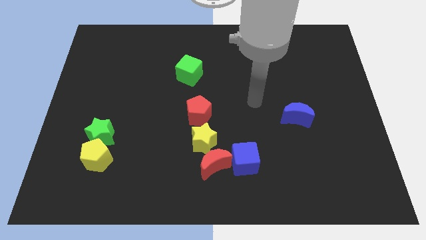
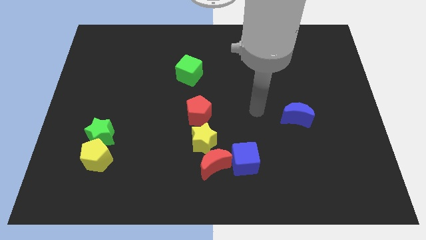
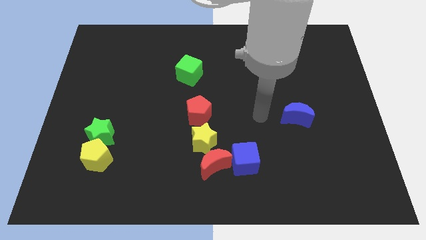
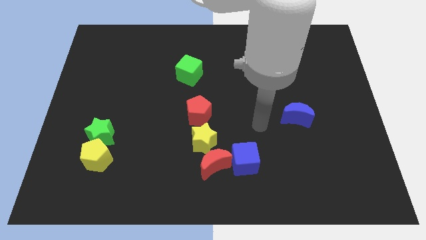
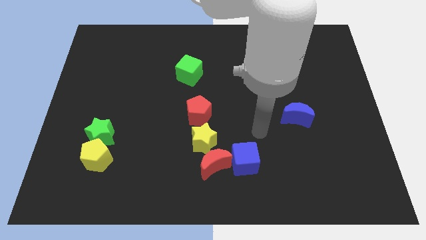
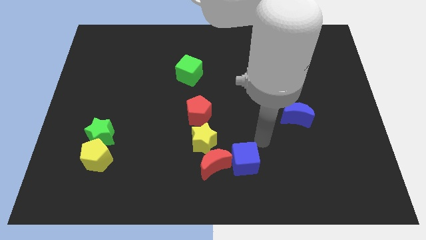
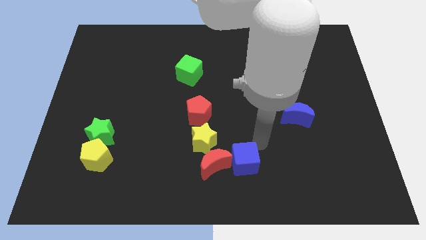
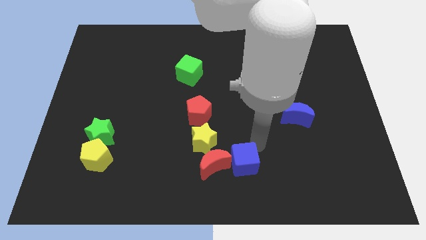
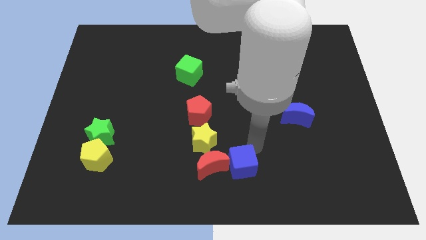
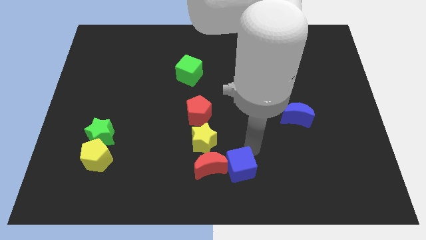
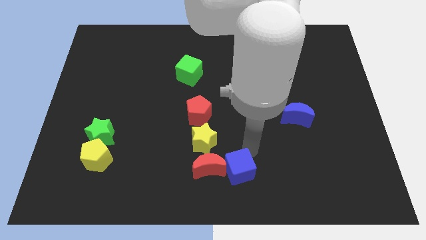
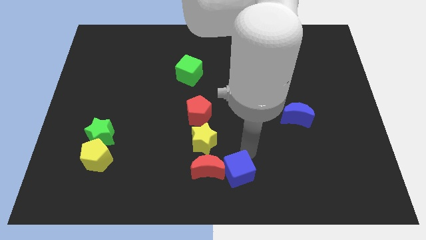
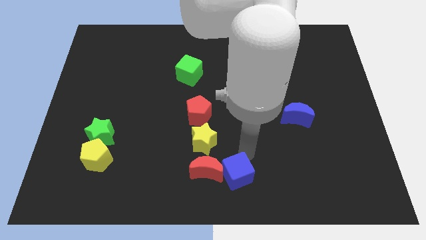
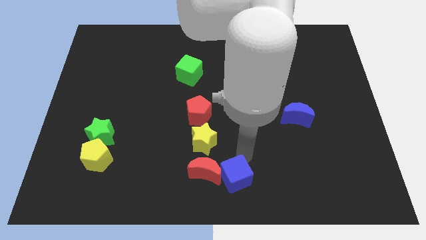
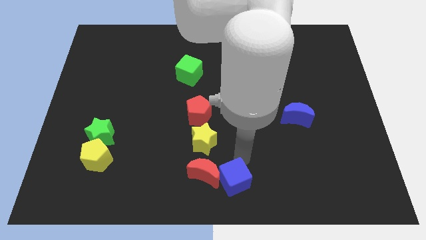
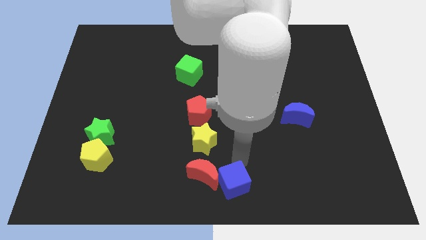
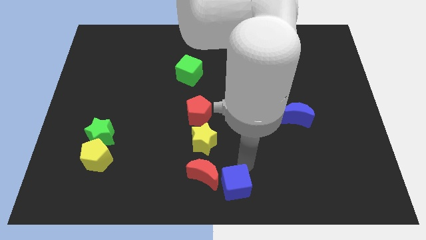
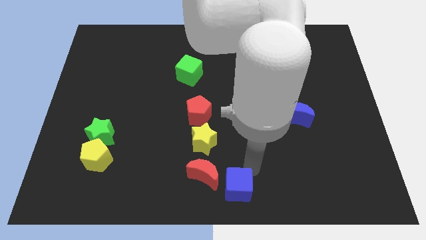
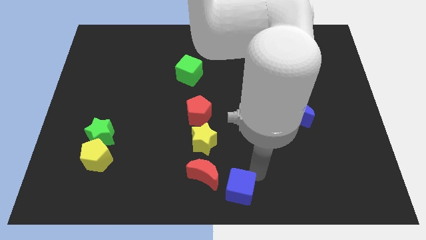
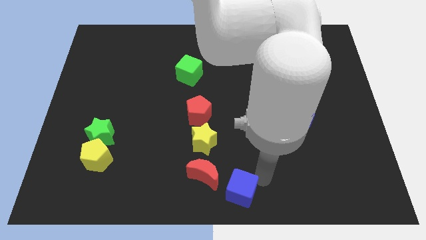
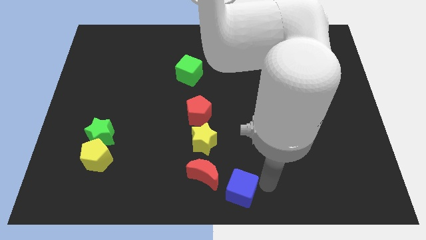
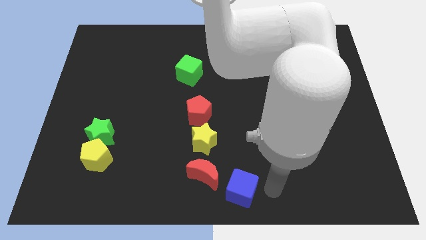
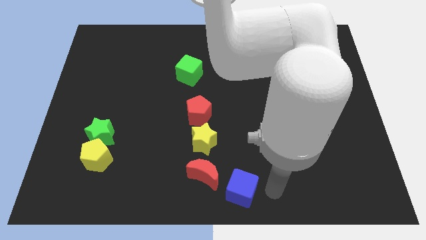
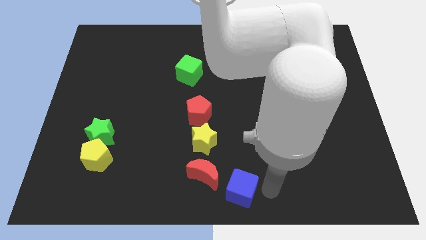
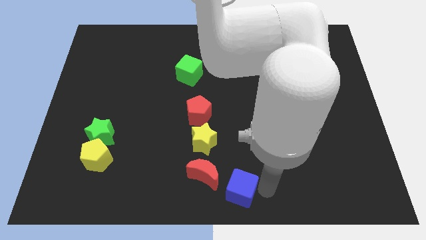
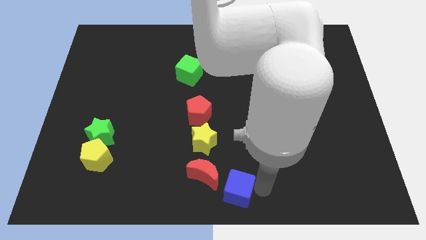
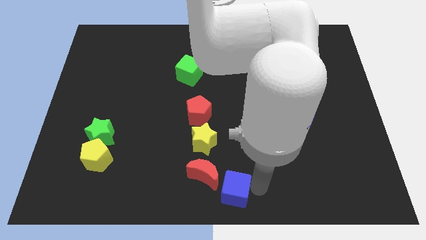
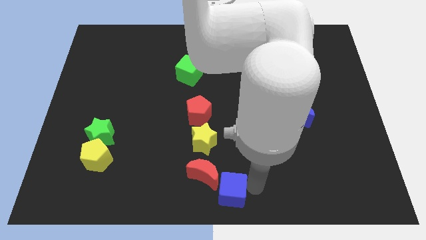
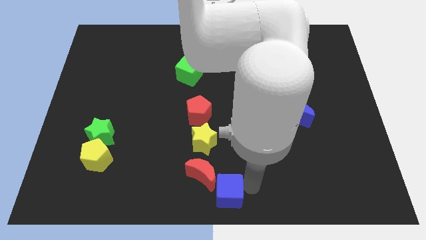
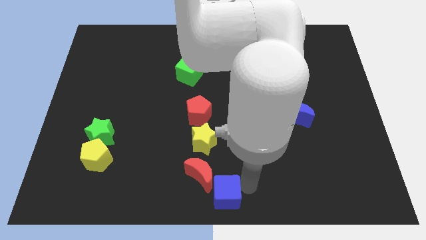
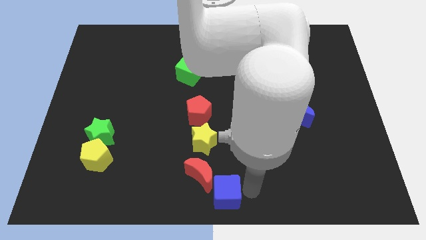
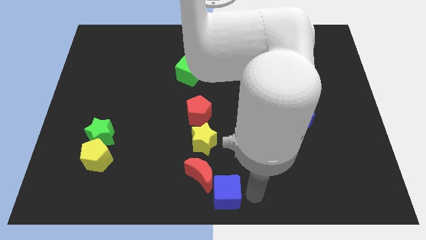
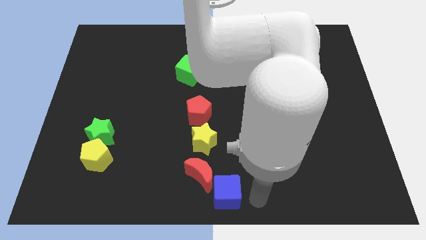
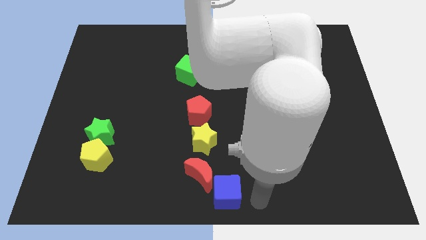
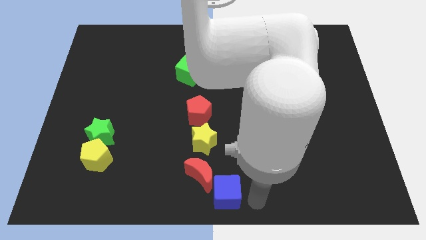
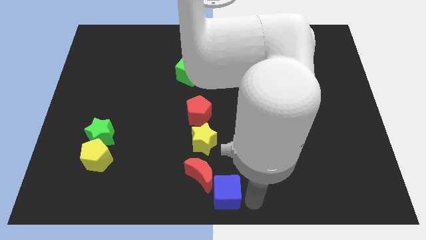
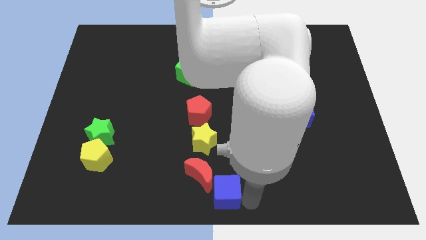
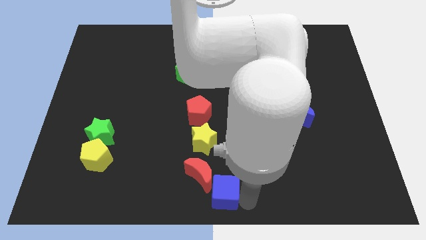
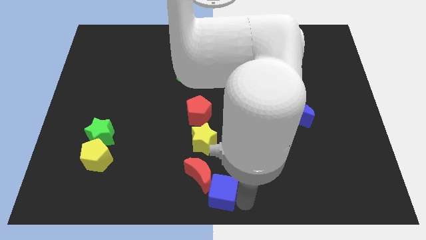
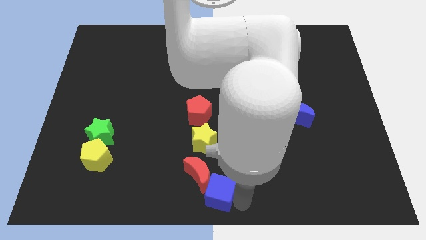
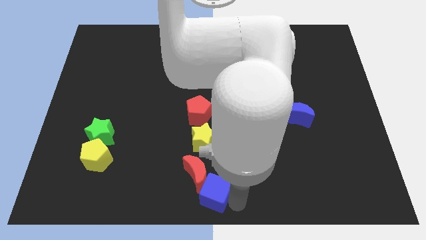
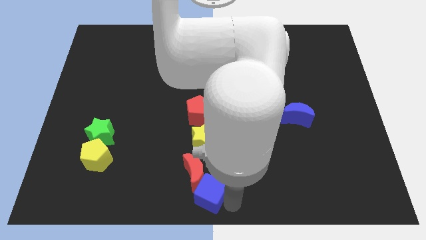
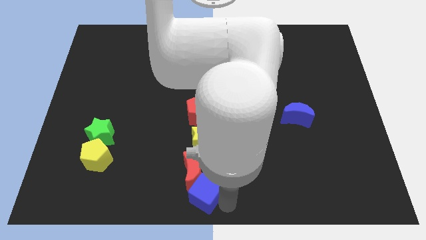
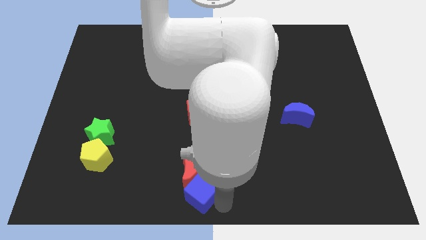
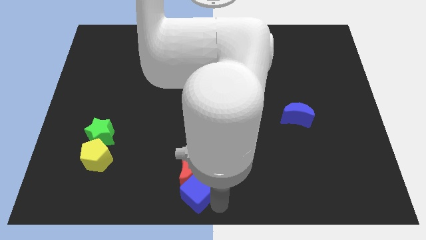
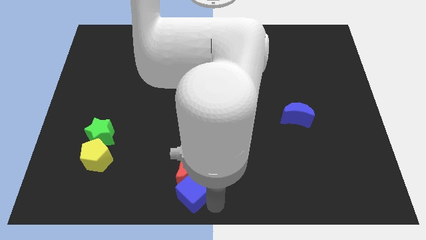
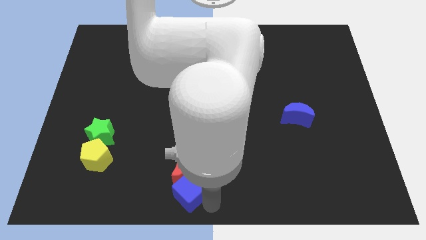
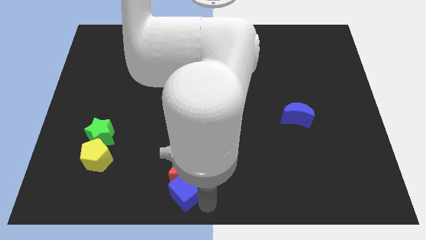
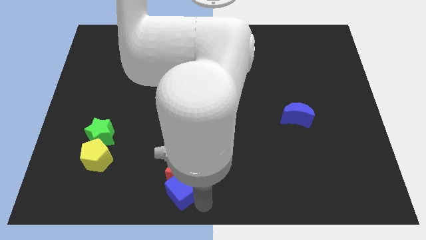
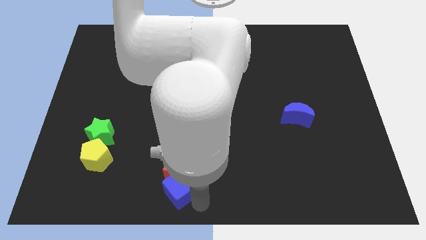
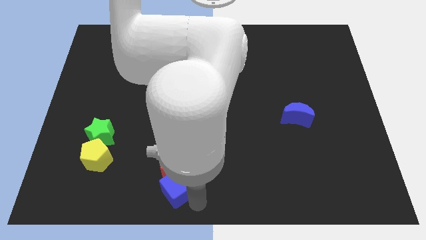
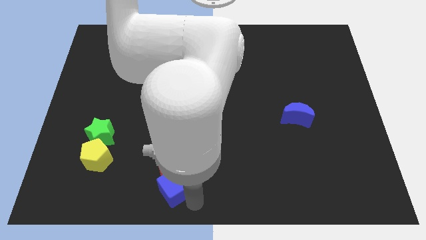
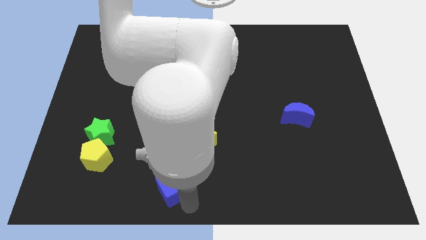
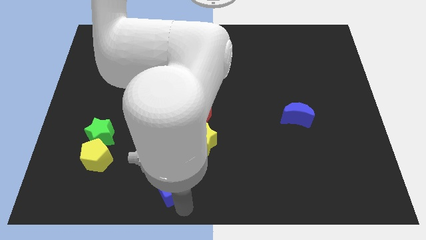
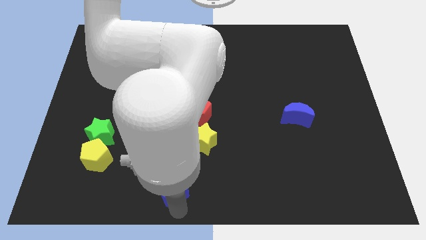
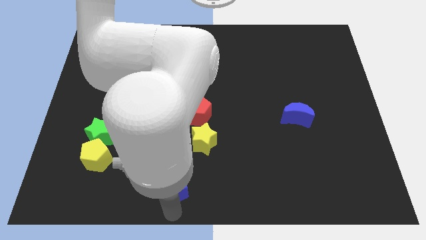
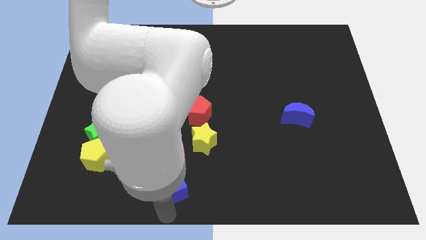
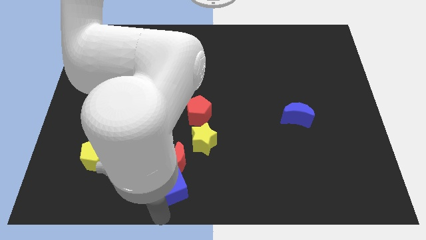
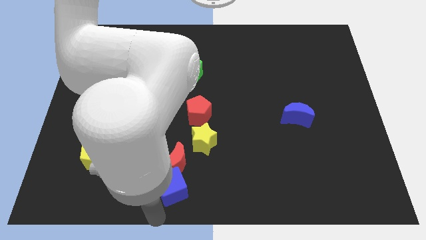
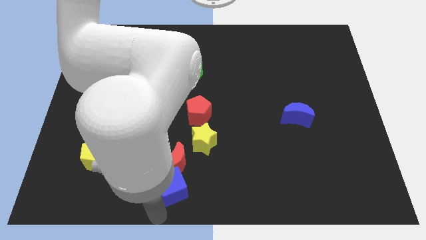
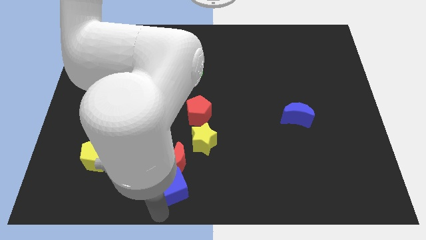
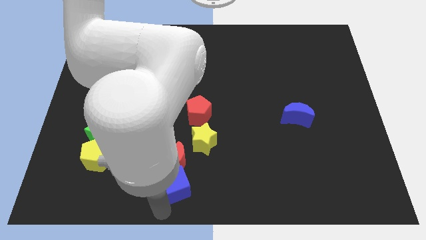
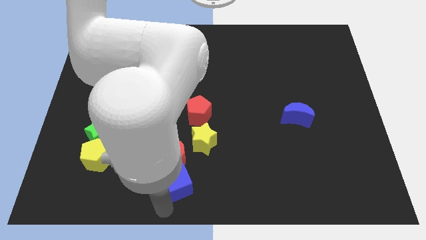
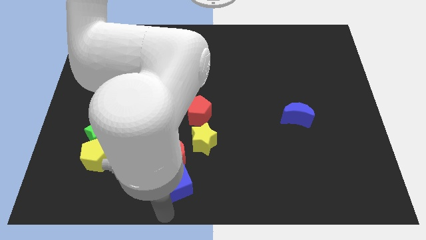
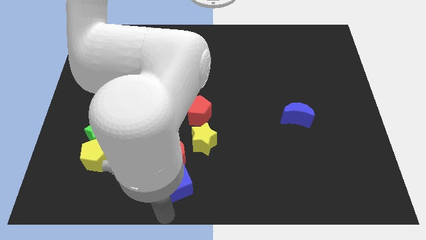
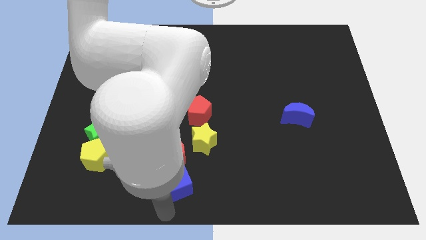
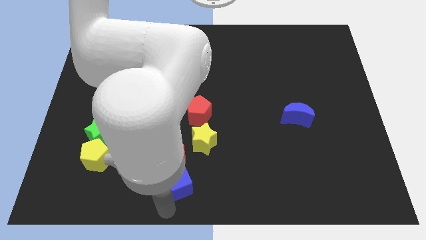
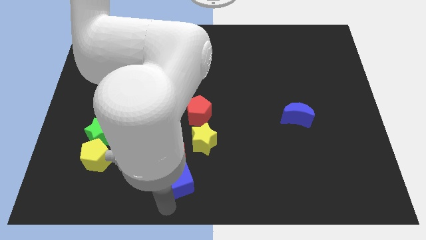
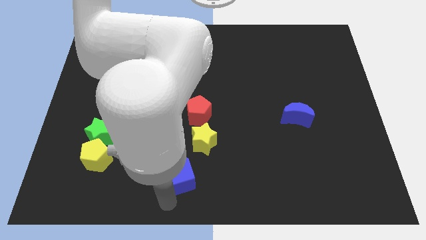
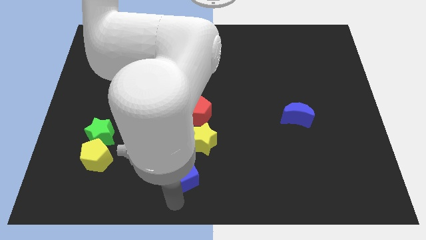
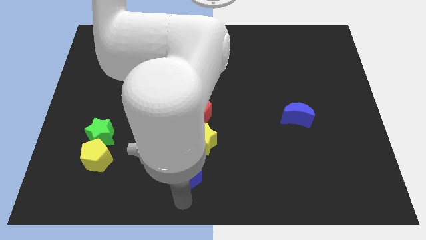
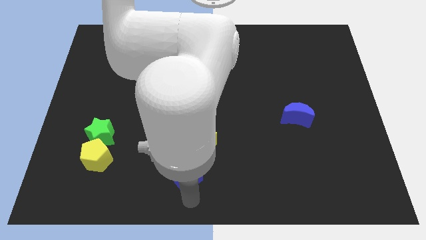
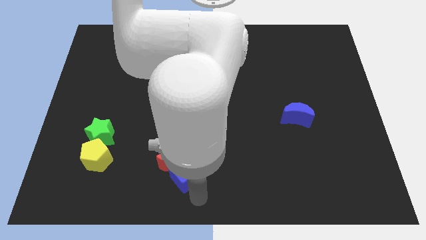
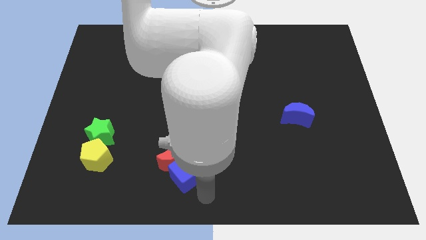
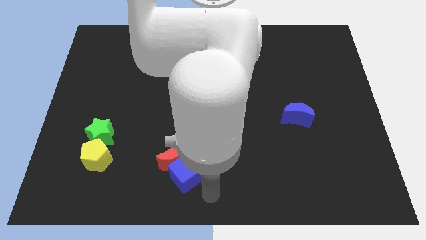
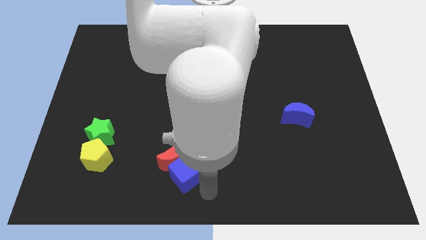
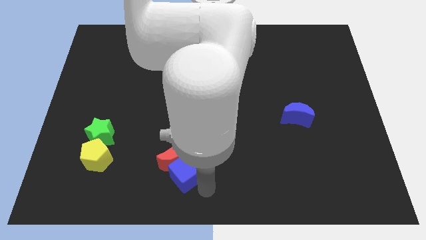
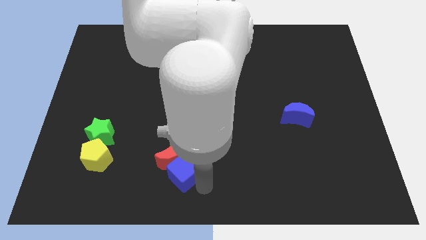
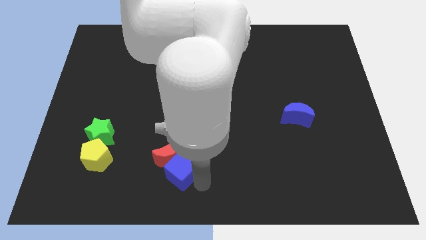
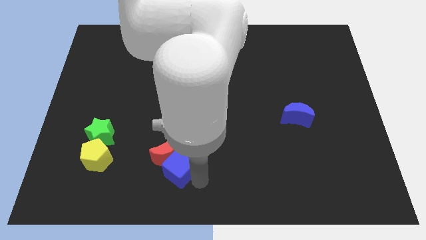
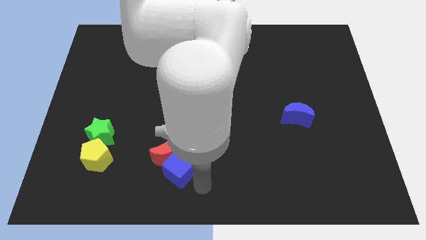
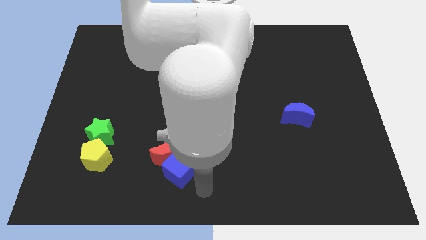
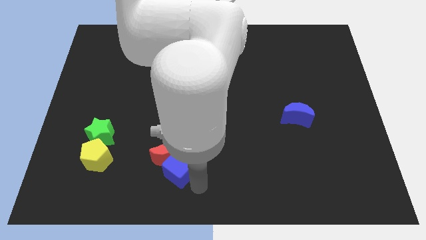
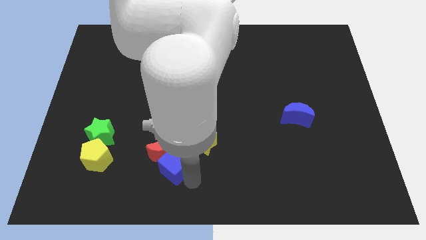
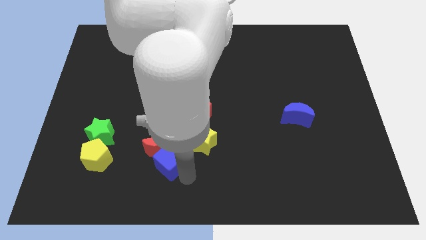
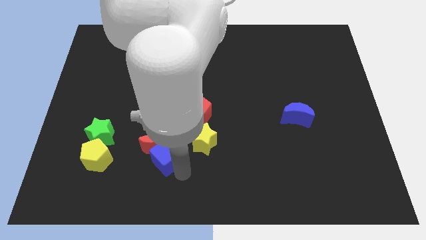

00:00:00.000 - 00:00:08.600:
push the blue cube just left of the yellow star
